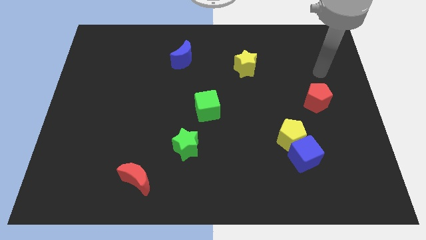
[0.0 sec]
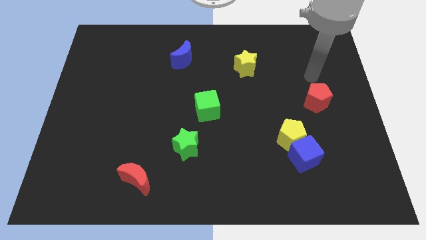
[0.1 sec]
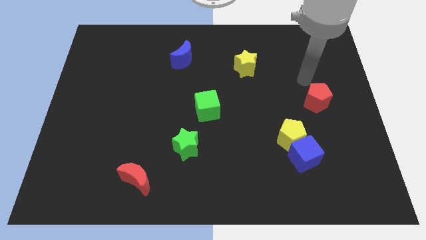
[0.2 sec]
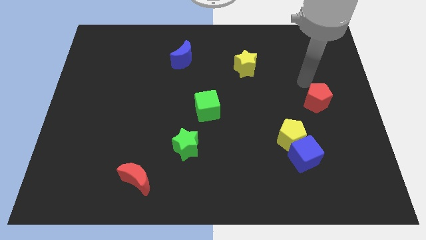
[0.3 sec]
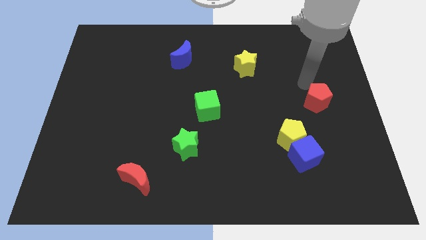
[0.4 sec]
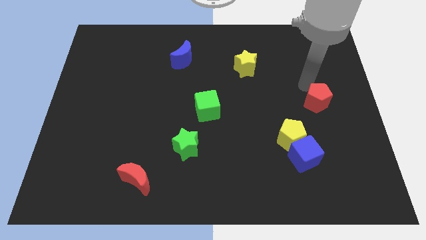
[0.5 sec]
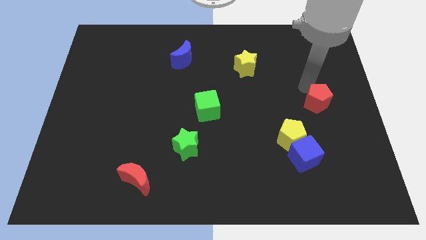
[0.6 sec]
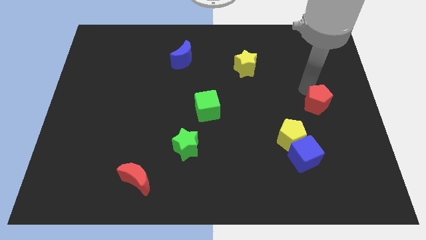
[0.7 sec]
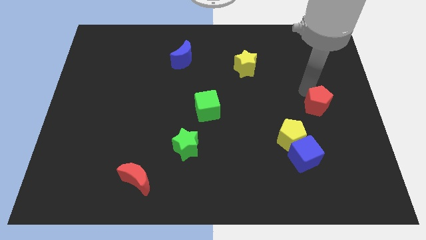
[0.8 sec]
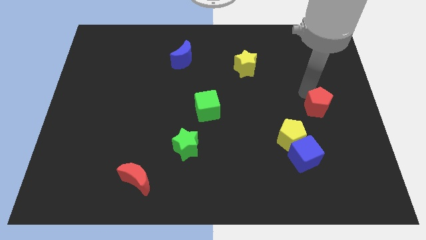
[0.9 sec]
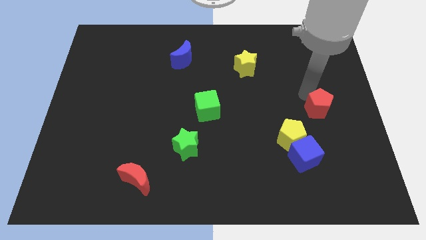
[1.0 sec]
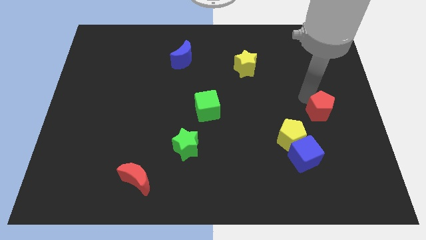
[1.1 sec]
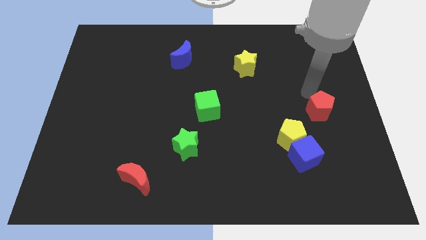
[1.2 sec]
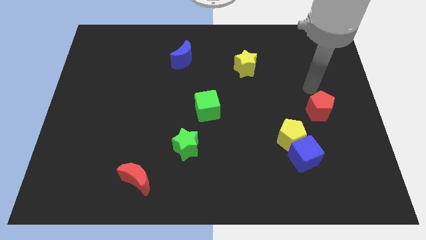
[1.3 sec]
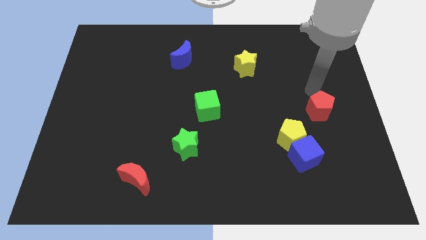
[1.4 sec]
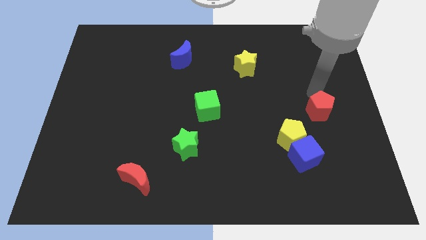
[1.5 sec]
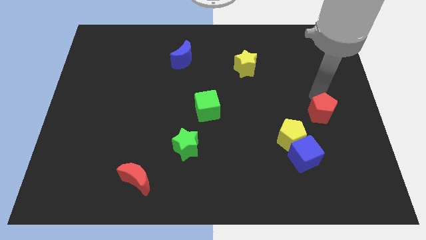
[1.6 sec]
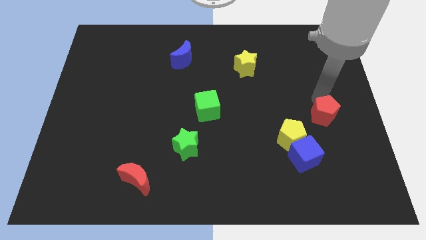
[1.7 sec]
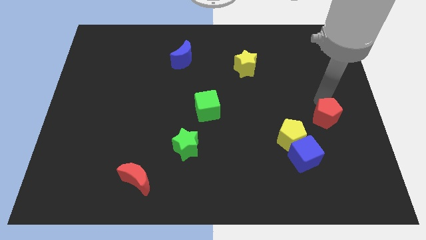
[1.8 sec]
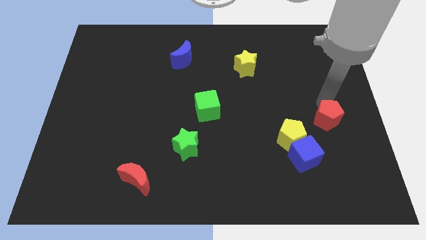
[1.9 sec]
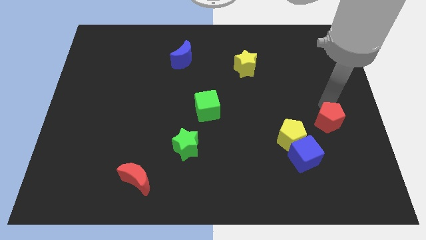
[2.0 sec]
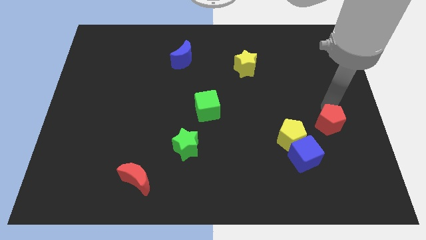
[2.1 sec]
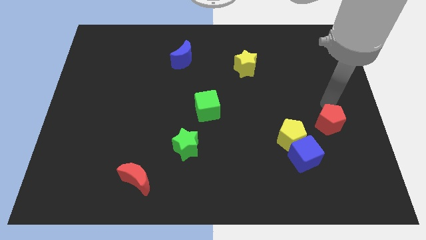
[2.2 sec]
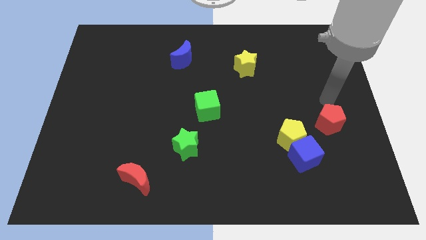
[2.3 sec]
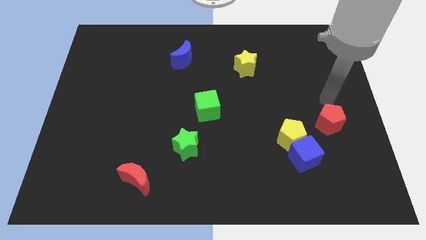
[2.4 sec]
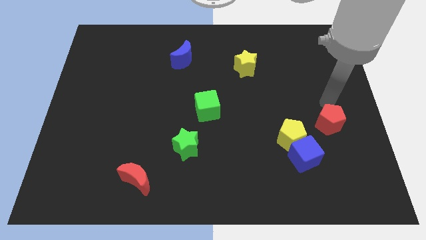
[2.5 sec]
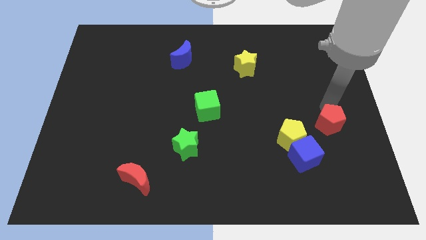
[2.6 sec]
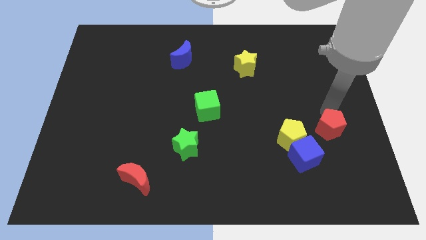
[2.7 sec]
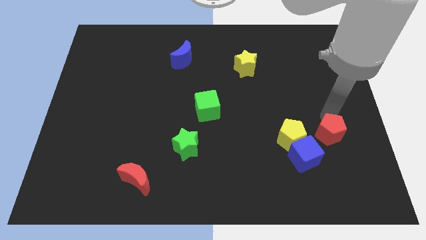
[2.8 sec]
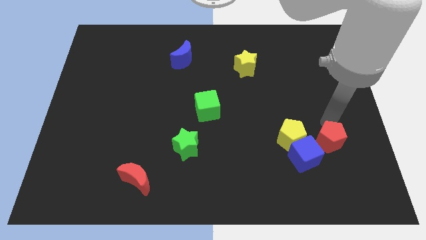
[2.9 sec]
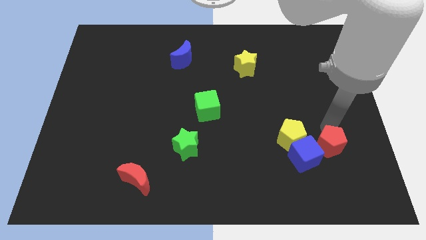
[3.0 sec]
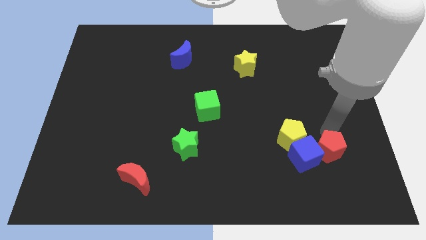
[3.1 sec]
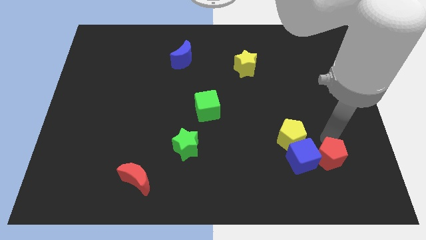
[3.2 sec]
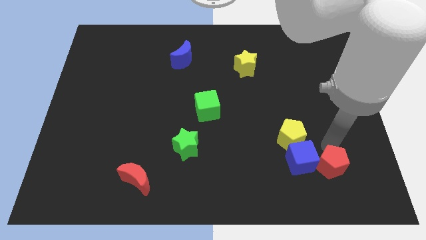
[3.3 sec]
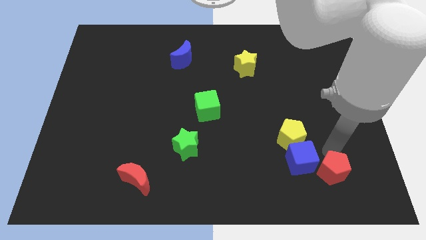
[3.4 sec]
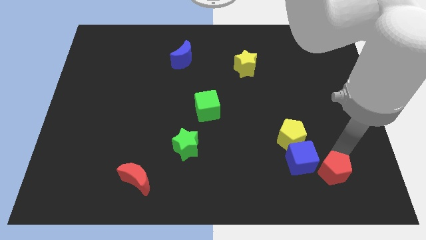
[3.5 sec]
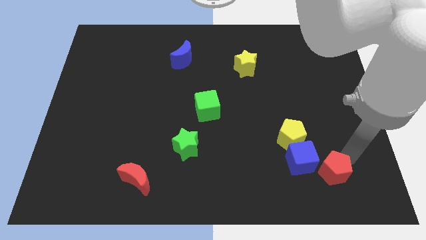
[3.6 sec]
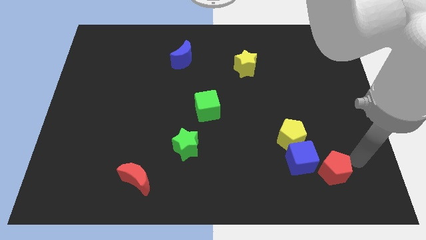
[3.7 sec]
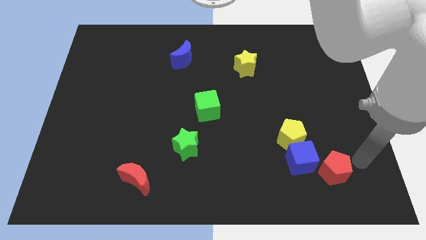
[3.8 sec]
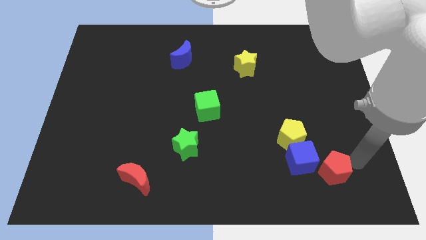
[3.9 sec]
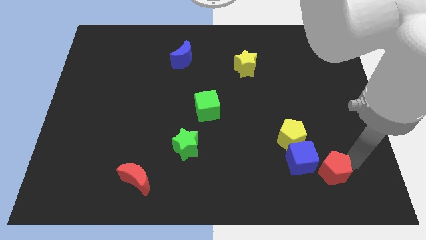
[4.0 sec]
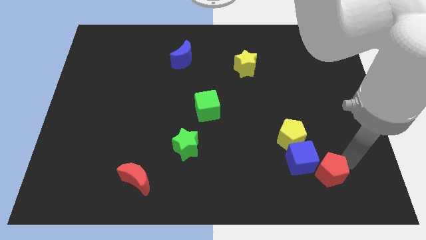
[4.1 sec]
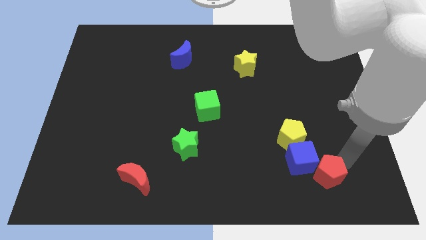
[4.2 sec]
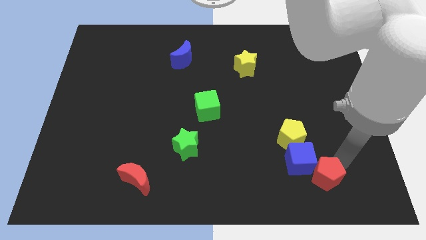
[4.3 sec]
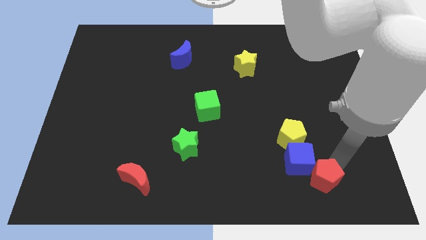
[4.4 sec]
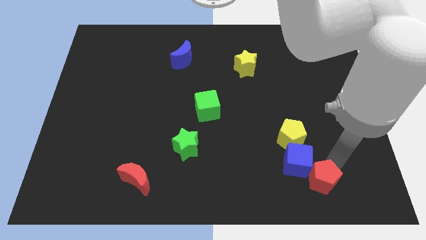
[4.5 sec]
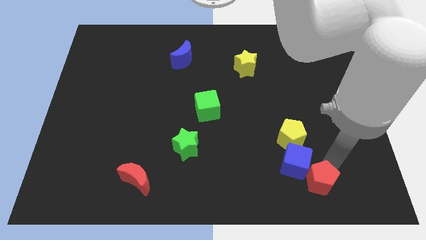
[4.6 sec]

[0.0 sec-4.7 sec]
slide the red pentagon to the bottom side of the yellow pentagon

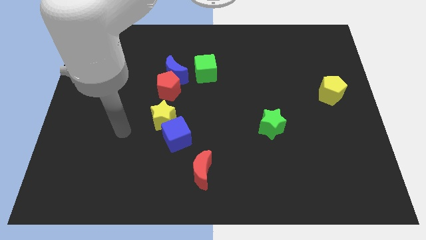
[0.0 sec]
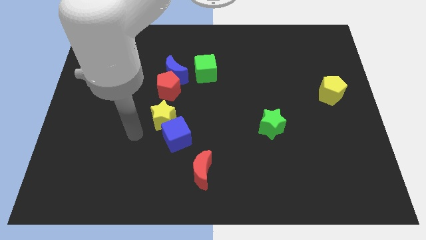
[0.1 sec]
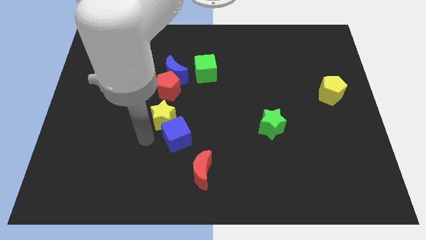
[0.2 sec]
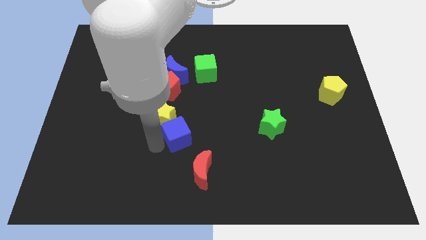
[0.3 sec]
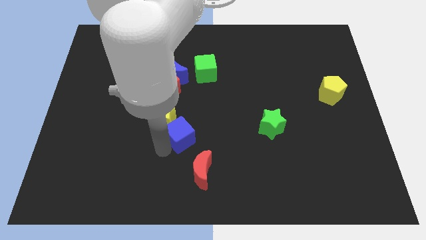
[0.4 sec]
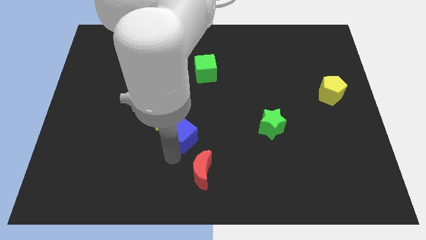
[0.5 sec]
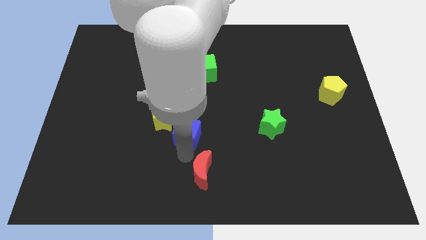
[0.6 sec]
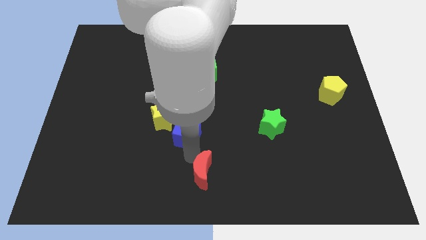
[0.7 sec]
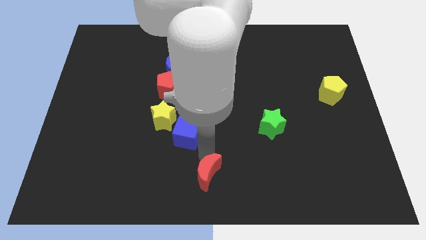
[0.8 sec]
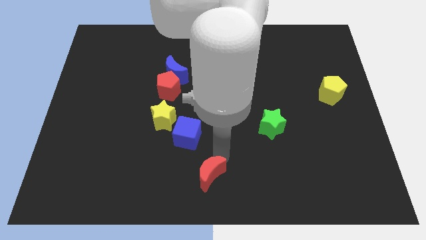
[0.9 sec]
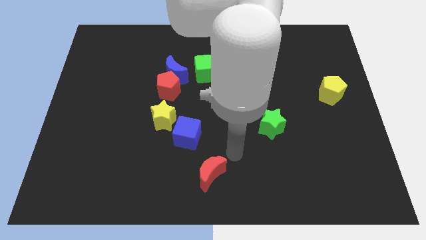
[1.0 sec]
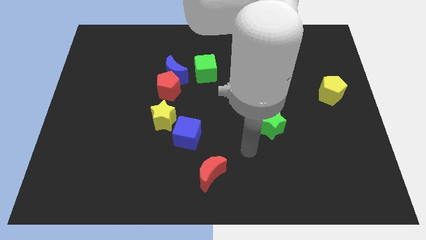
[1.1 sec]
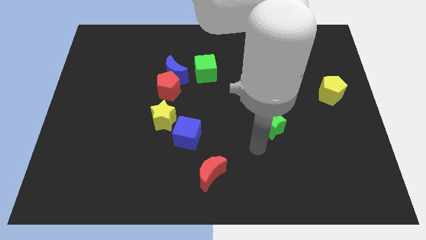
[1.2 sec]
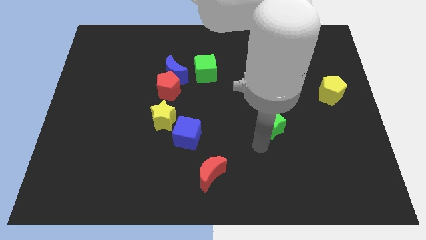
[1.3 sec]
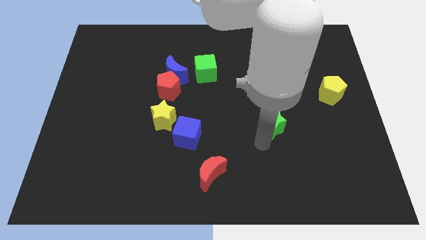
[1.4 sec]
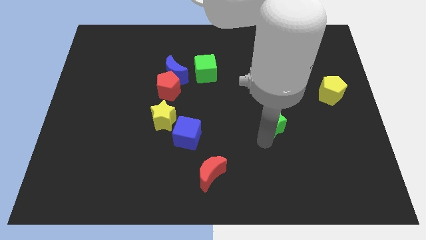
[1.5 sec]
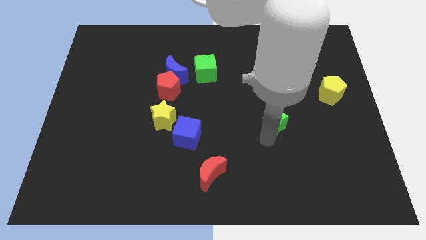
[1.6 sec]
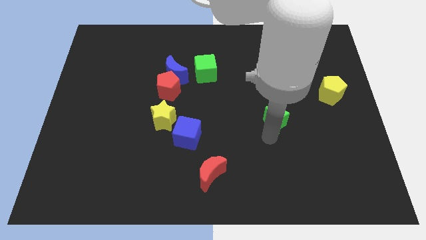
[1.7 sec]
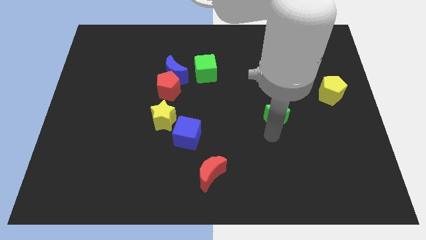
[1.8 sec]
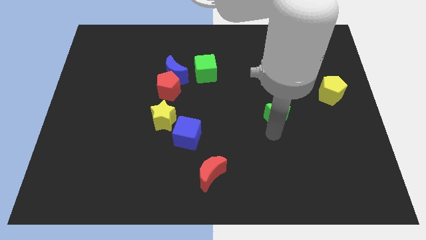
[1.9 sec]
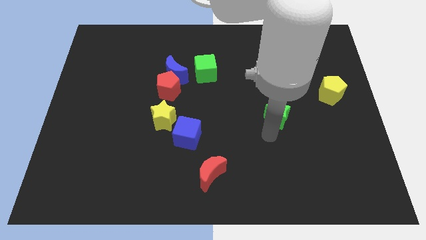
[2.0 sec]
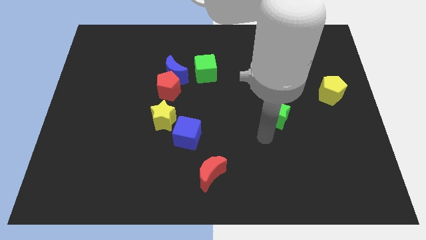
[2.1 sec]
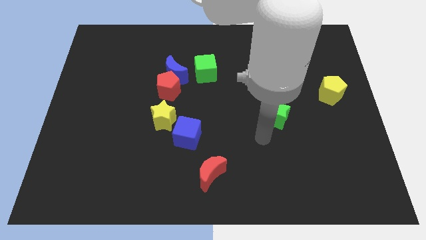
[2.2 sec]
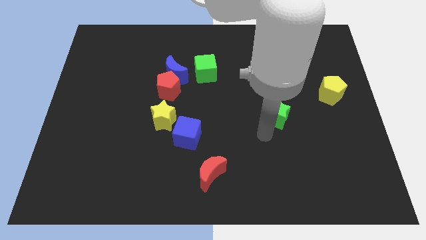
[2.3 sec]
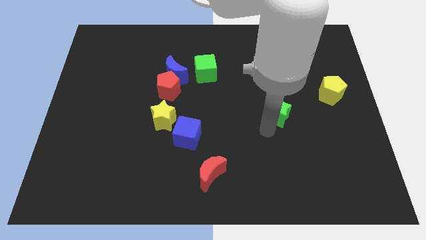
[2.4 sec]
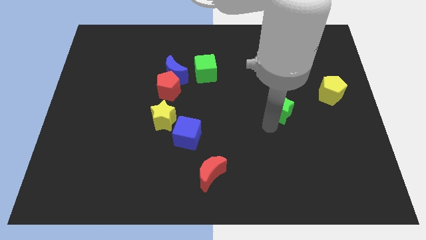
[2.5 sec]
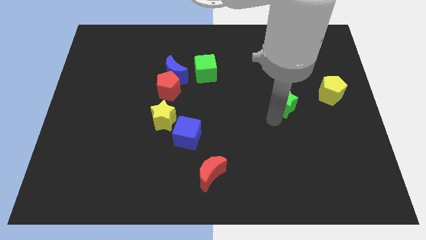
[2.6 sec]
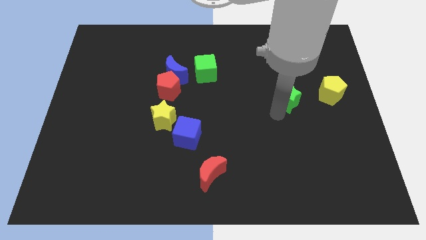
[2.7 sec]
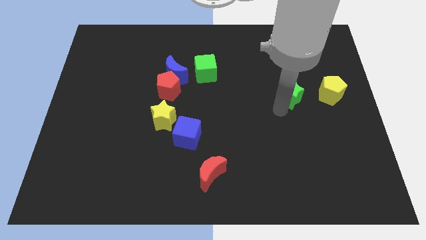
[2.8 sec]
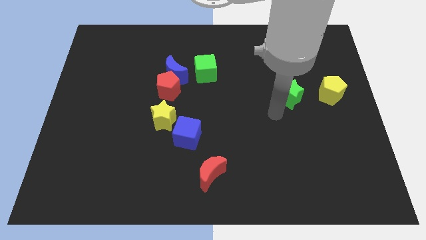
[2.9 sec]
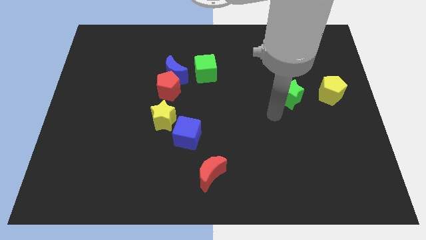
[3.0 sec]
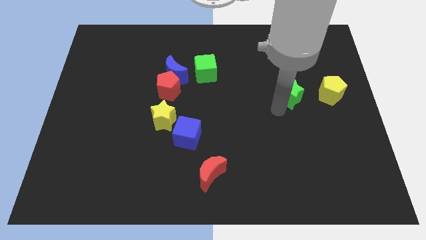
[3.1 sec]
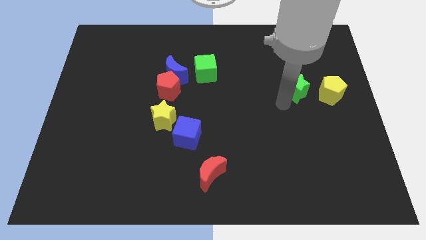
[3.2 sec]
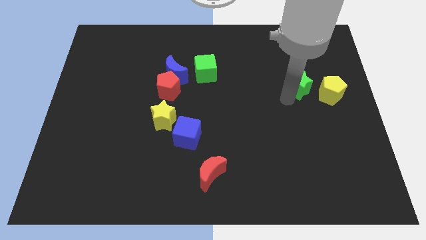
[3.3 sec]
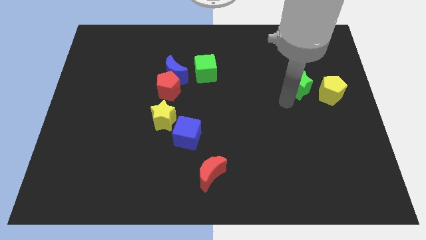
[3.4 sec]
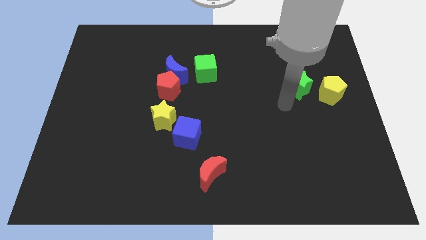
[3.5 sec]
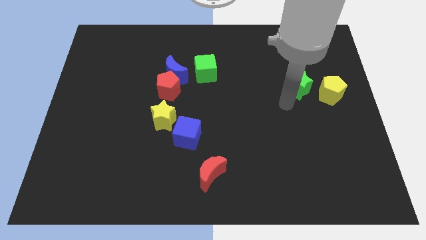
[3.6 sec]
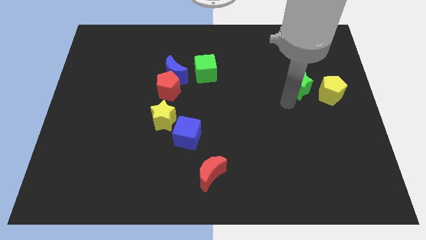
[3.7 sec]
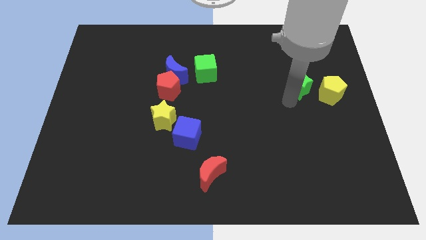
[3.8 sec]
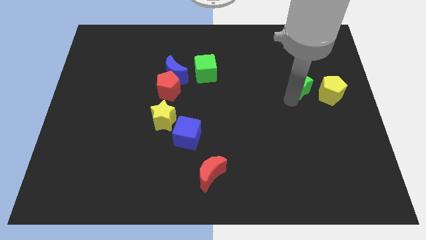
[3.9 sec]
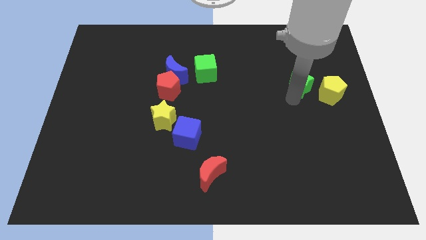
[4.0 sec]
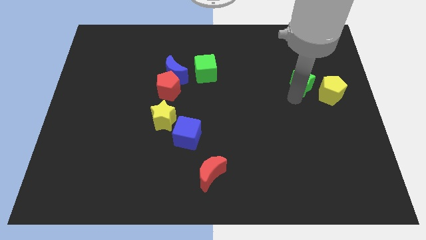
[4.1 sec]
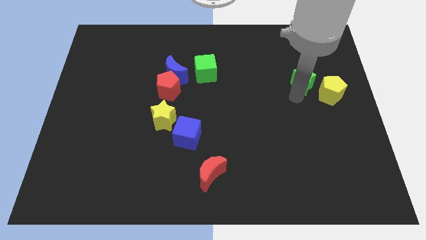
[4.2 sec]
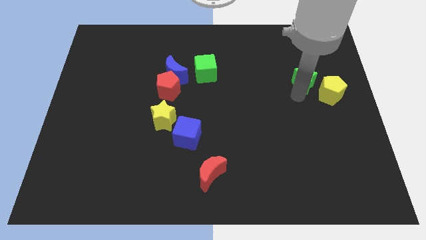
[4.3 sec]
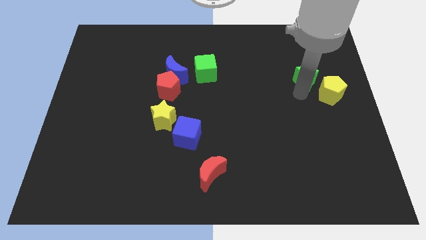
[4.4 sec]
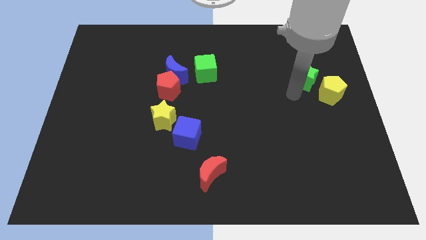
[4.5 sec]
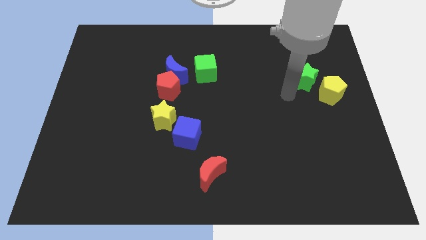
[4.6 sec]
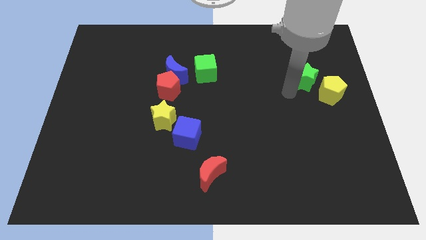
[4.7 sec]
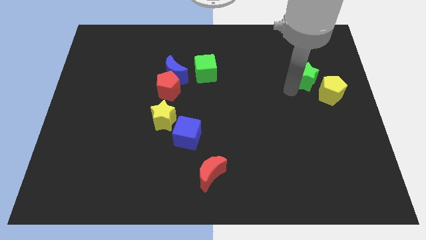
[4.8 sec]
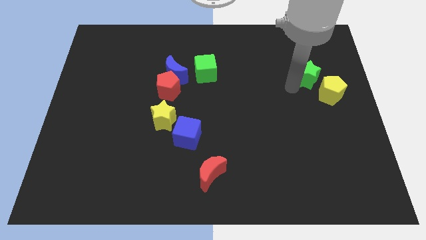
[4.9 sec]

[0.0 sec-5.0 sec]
slide the green star to the top side of the yellow pentagon
